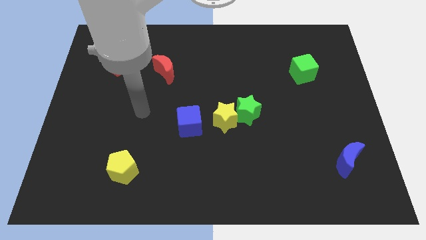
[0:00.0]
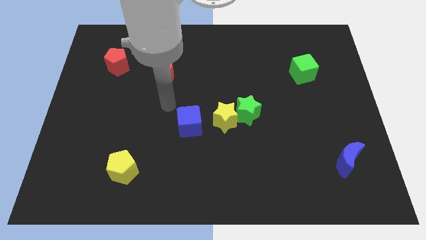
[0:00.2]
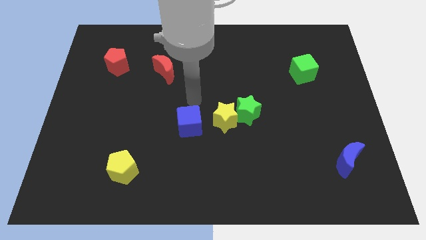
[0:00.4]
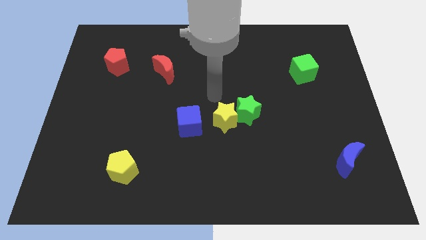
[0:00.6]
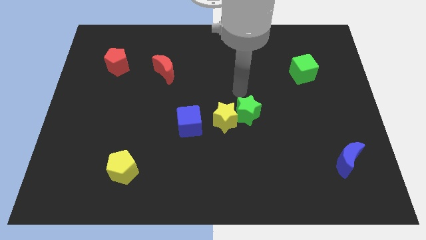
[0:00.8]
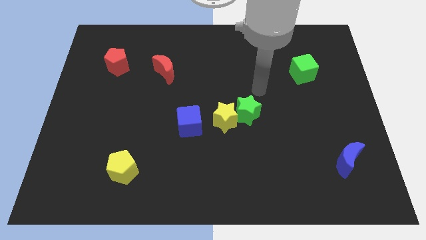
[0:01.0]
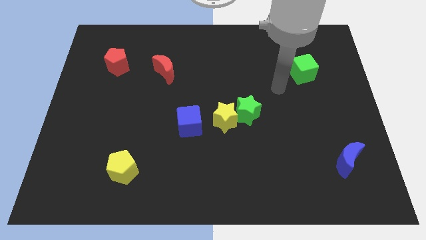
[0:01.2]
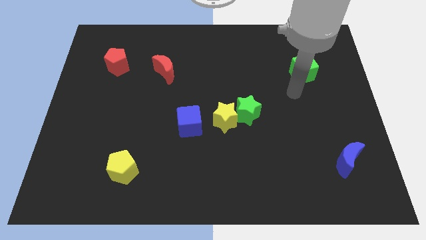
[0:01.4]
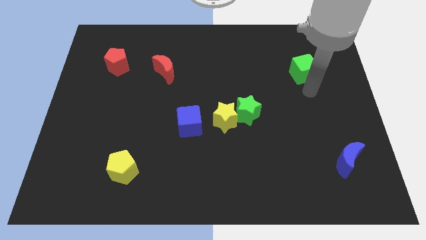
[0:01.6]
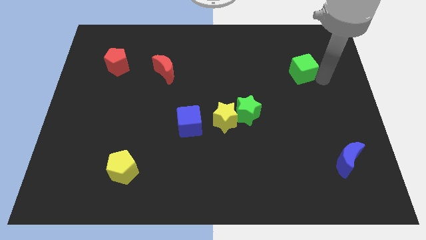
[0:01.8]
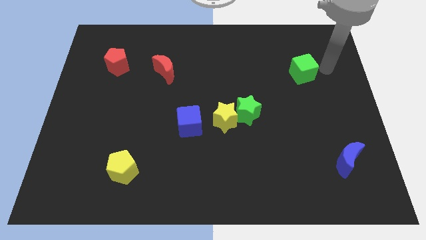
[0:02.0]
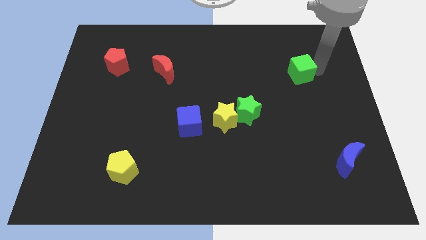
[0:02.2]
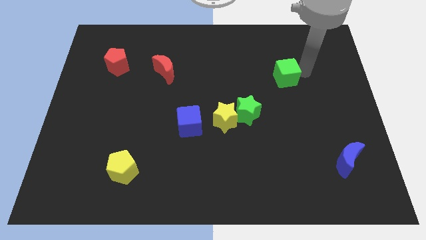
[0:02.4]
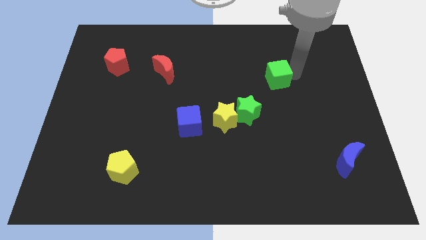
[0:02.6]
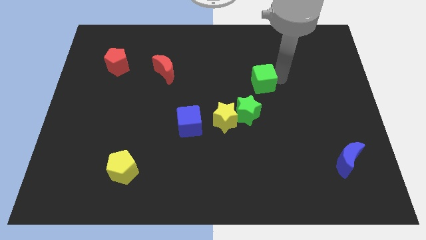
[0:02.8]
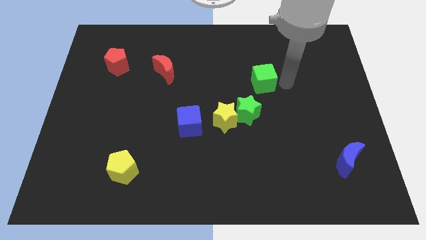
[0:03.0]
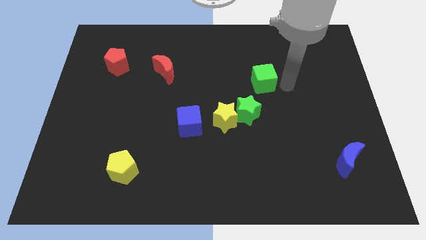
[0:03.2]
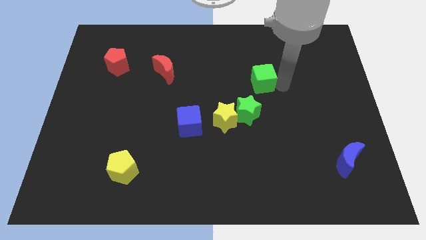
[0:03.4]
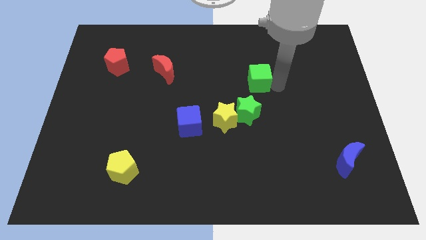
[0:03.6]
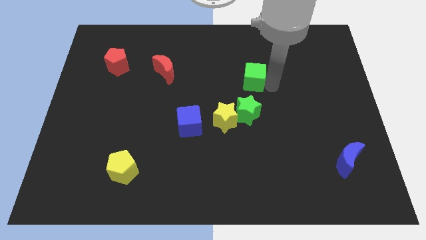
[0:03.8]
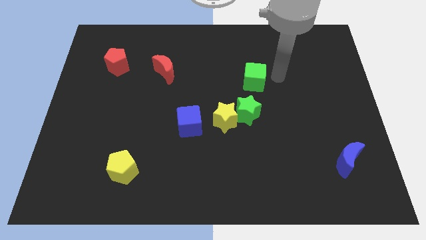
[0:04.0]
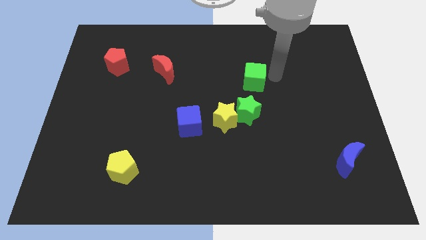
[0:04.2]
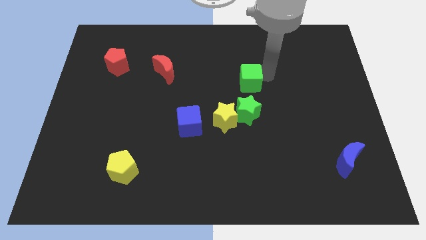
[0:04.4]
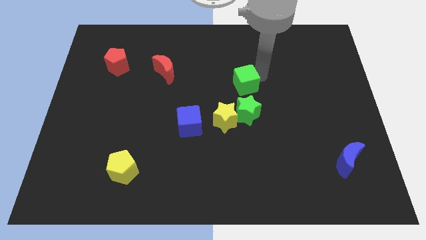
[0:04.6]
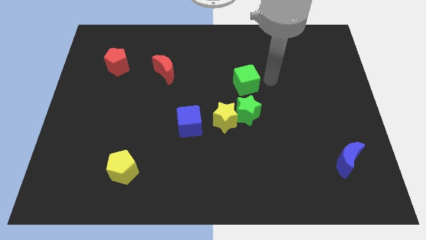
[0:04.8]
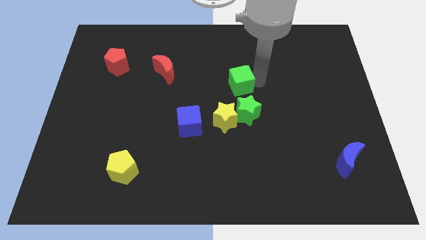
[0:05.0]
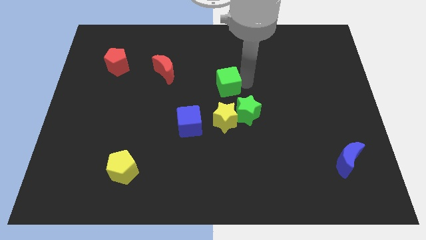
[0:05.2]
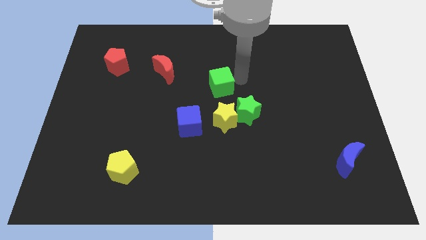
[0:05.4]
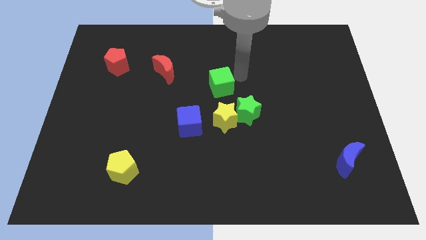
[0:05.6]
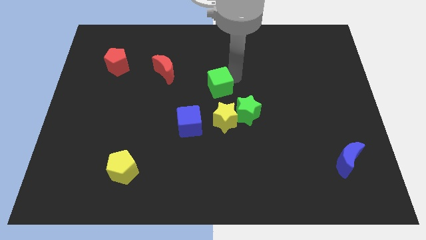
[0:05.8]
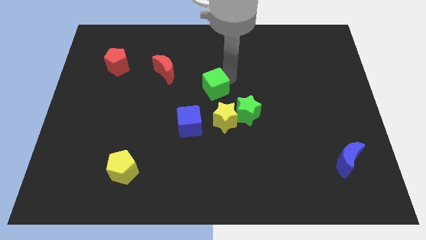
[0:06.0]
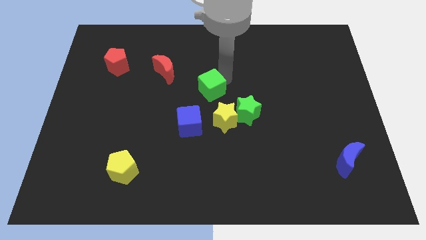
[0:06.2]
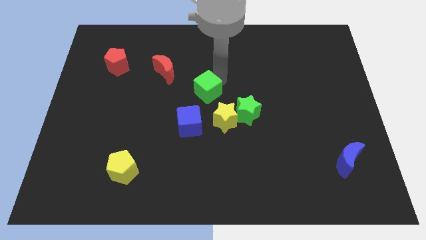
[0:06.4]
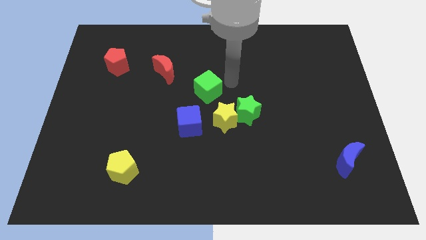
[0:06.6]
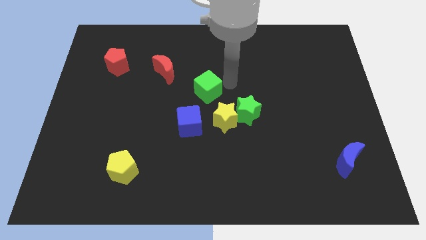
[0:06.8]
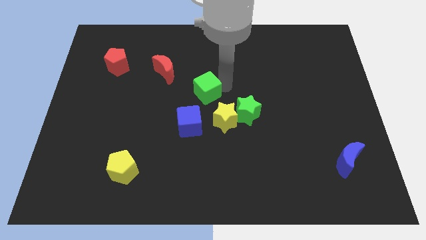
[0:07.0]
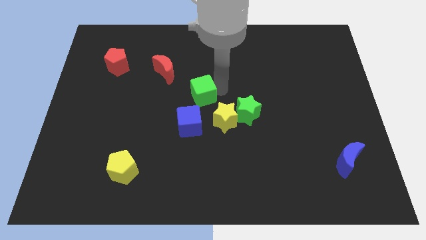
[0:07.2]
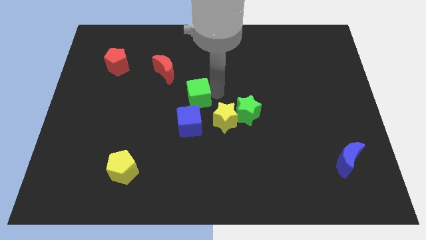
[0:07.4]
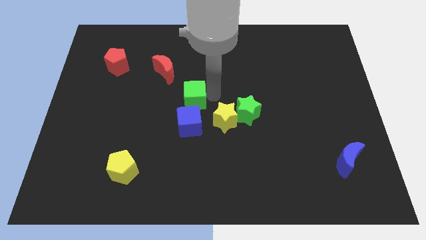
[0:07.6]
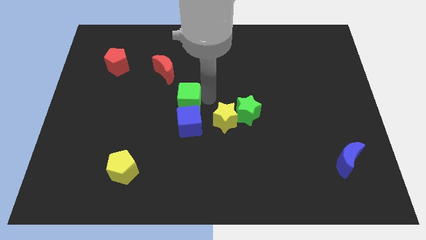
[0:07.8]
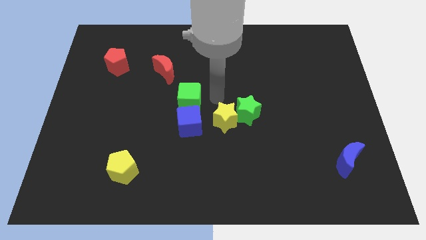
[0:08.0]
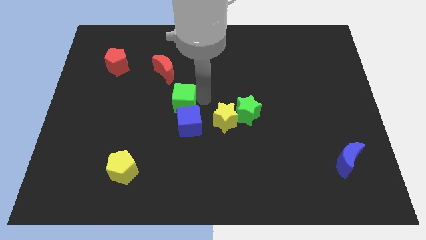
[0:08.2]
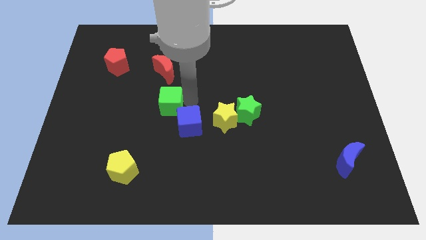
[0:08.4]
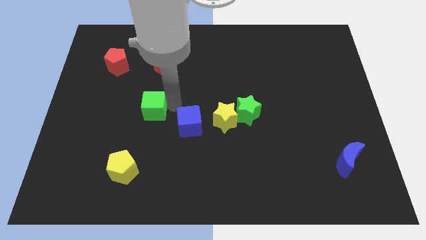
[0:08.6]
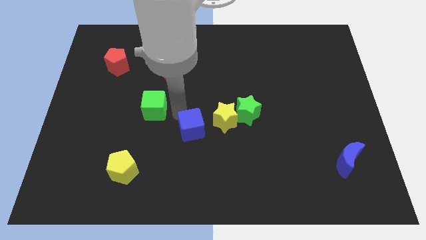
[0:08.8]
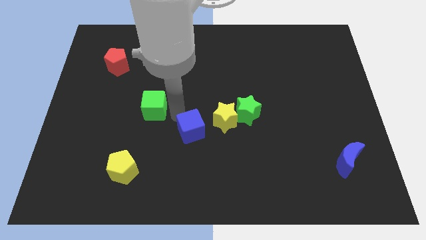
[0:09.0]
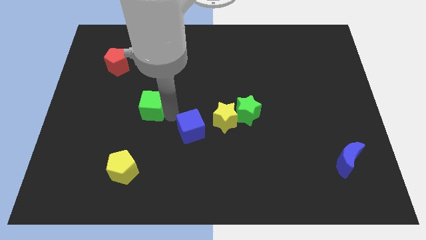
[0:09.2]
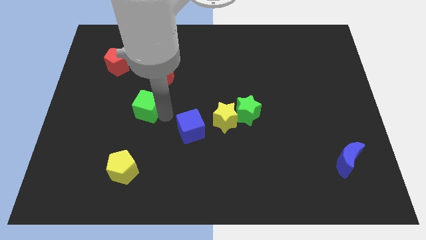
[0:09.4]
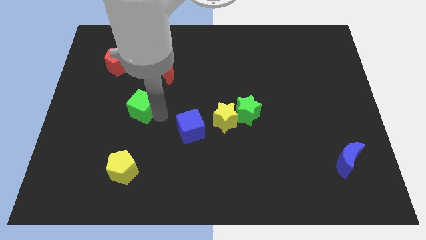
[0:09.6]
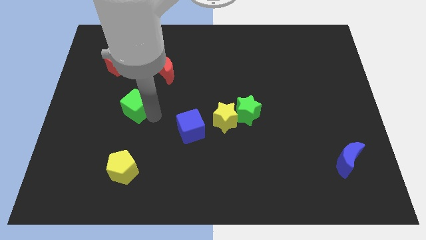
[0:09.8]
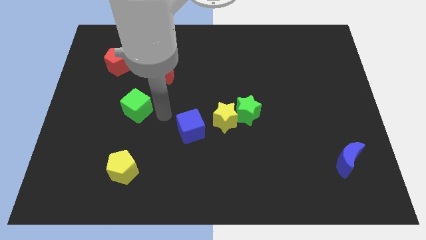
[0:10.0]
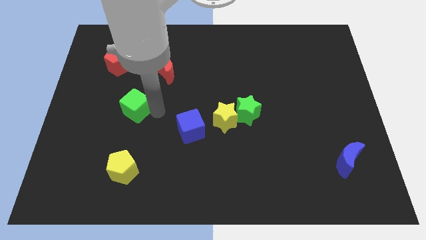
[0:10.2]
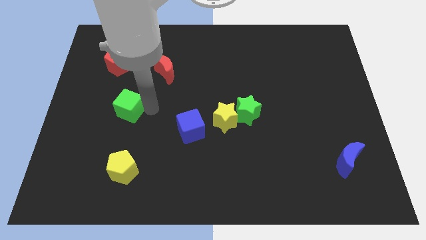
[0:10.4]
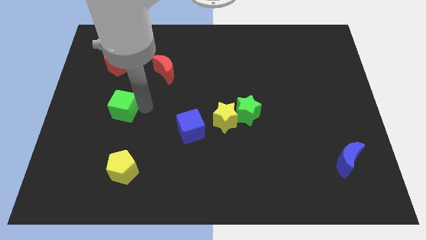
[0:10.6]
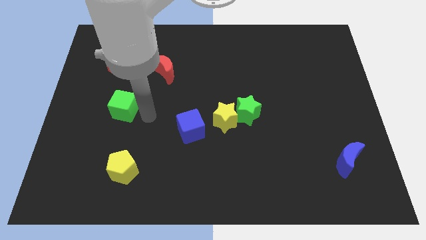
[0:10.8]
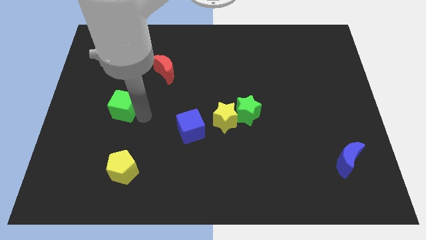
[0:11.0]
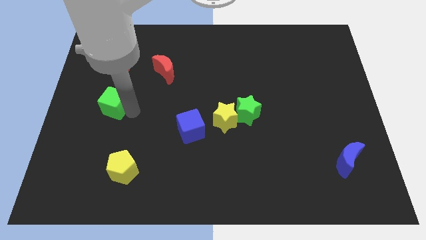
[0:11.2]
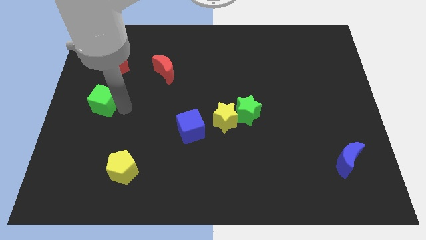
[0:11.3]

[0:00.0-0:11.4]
slide the green cube to the left side

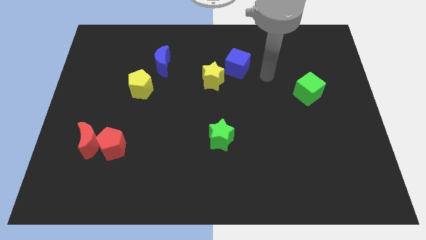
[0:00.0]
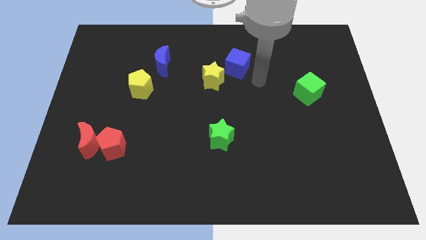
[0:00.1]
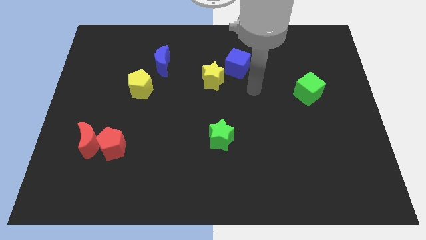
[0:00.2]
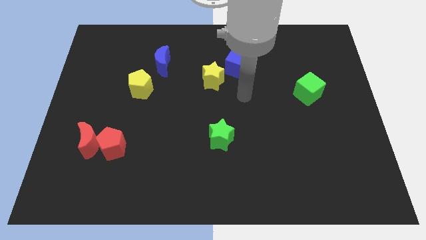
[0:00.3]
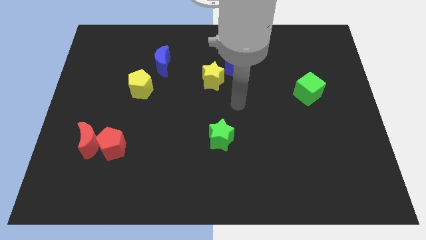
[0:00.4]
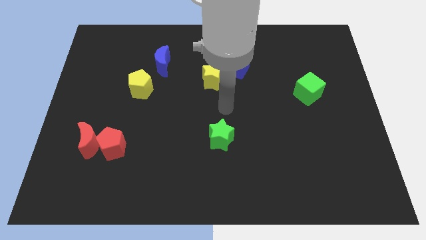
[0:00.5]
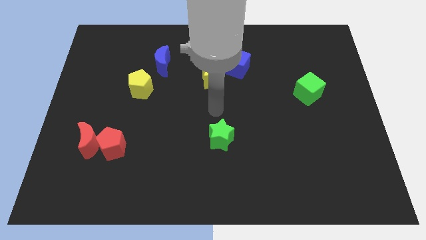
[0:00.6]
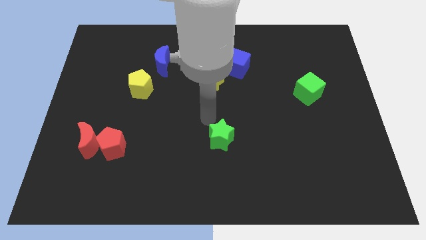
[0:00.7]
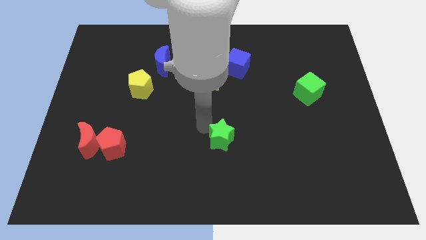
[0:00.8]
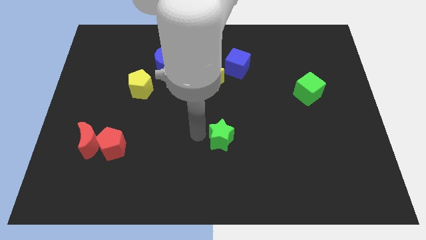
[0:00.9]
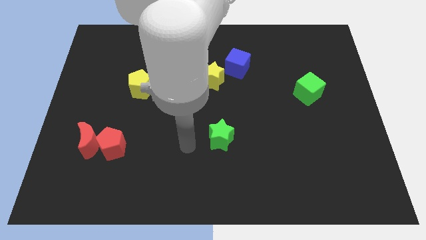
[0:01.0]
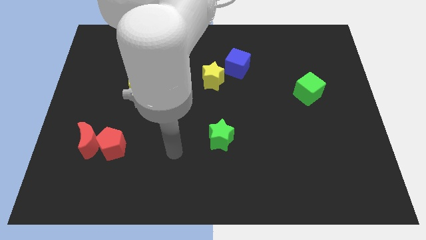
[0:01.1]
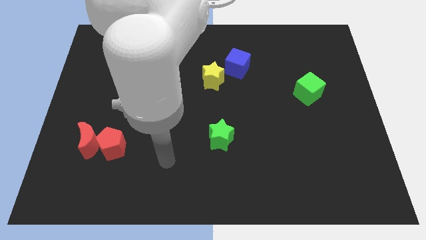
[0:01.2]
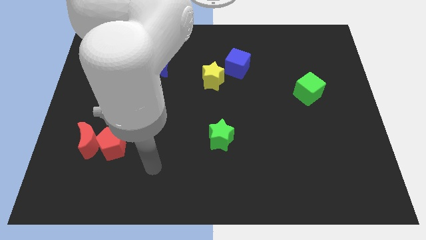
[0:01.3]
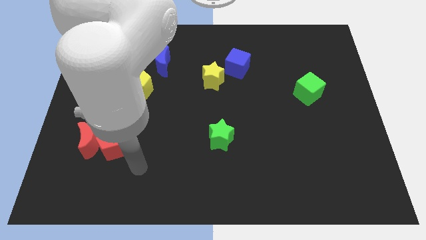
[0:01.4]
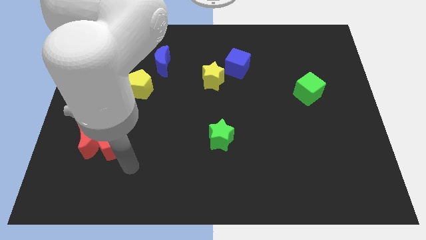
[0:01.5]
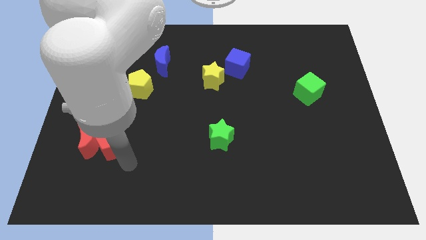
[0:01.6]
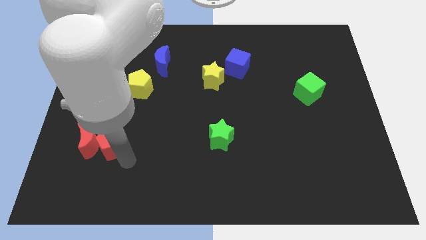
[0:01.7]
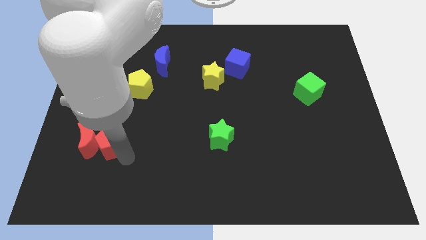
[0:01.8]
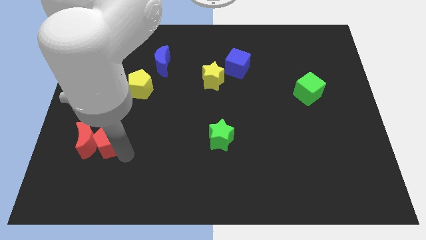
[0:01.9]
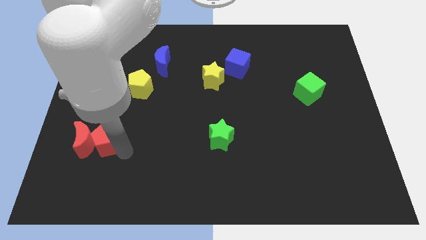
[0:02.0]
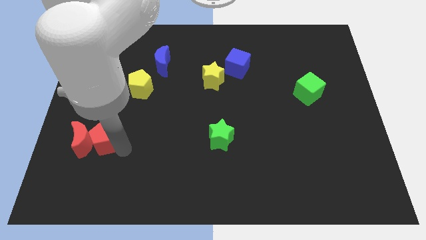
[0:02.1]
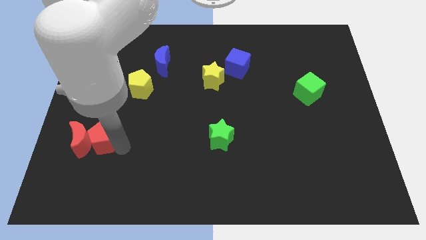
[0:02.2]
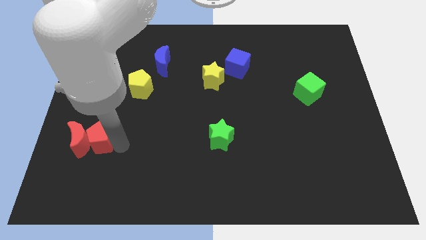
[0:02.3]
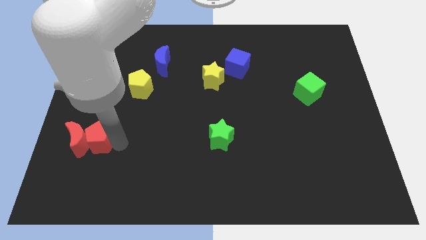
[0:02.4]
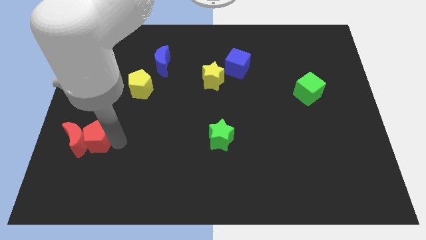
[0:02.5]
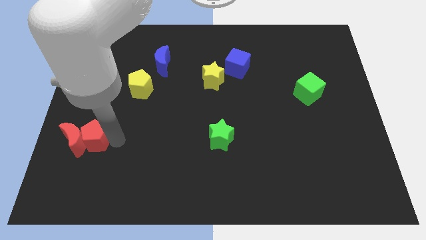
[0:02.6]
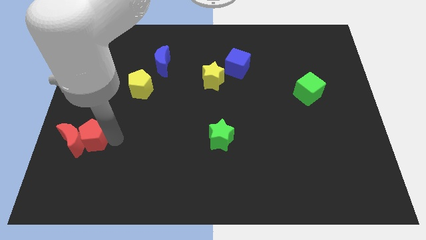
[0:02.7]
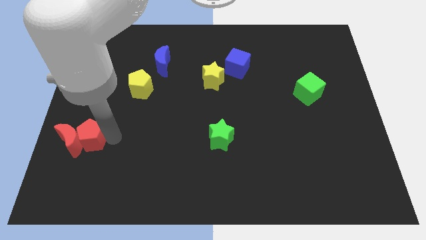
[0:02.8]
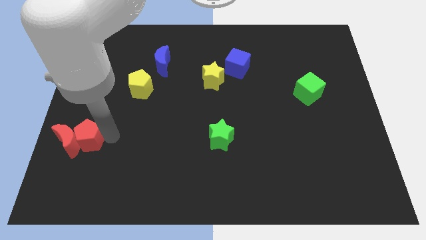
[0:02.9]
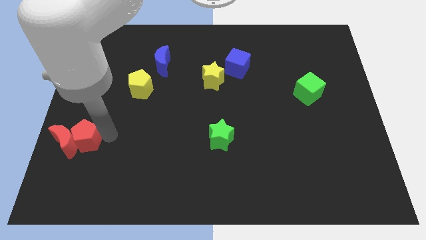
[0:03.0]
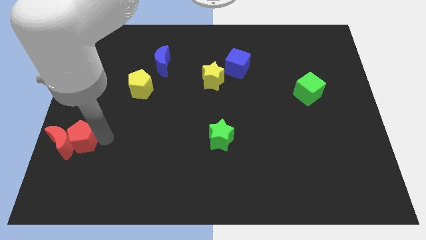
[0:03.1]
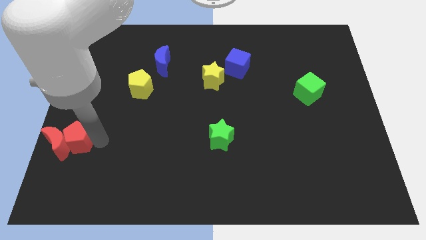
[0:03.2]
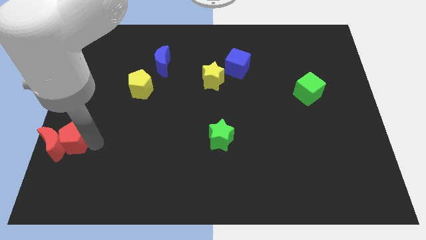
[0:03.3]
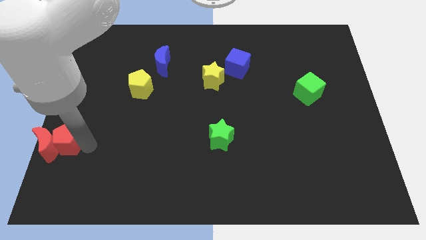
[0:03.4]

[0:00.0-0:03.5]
put the red pentagon to the center left
